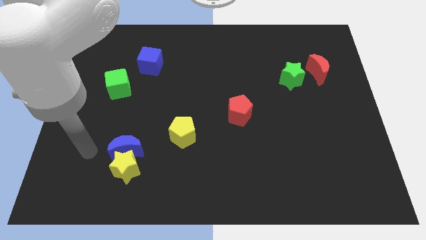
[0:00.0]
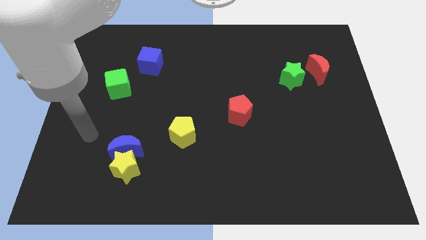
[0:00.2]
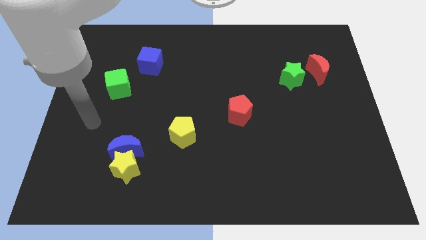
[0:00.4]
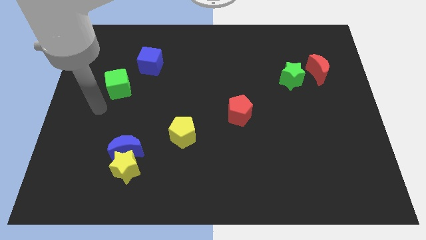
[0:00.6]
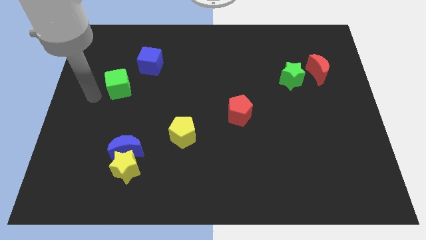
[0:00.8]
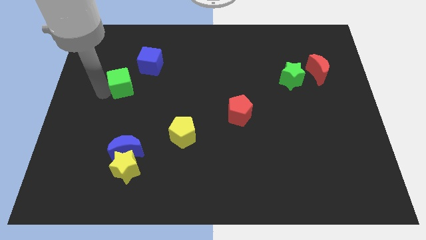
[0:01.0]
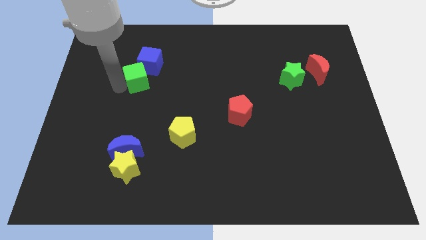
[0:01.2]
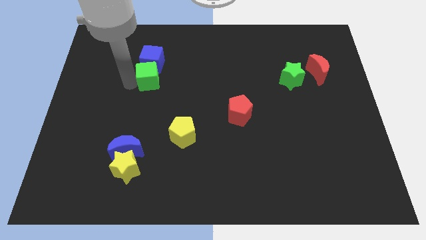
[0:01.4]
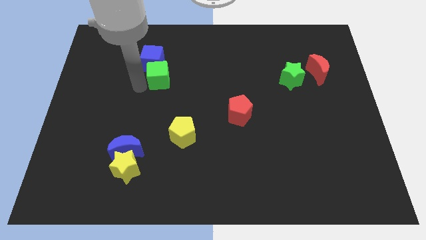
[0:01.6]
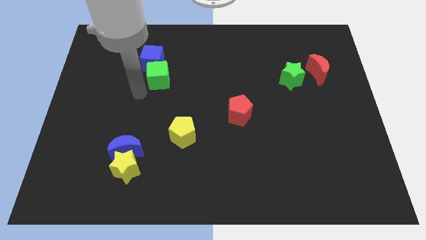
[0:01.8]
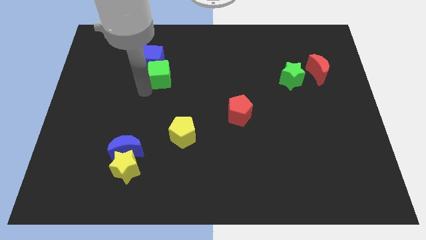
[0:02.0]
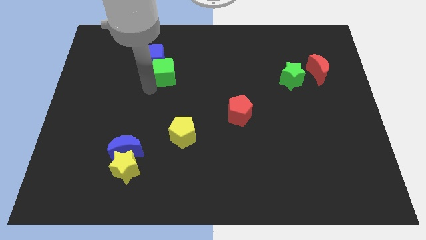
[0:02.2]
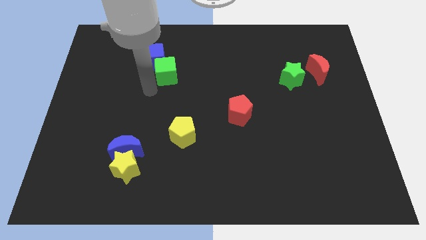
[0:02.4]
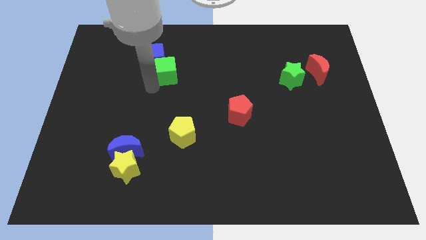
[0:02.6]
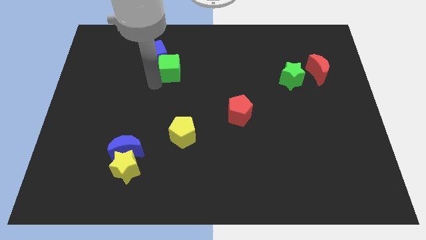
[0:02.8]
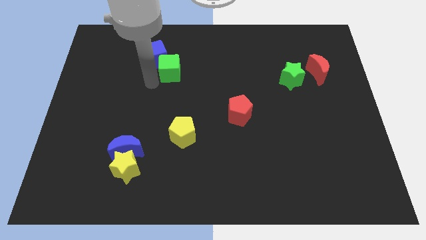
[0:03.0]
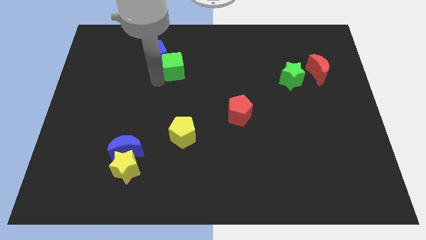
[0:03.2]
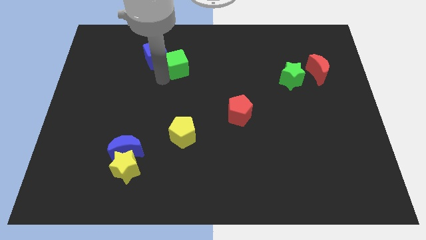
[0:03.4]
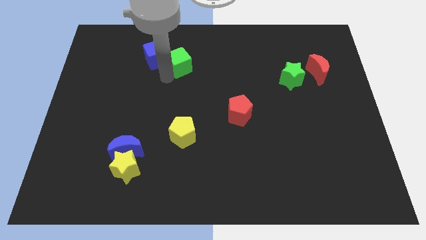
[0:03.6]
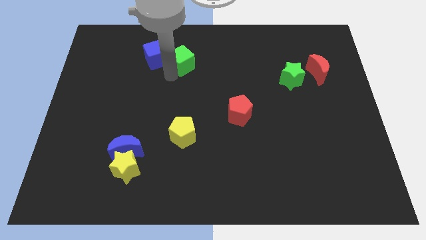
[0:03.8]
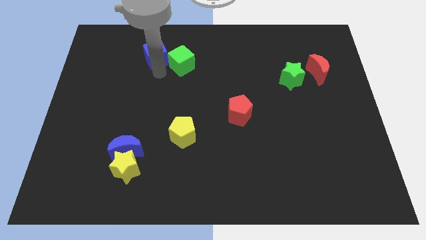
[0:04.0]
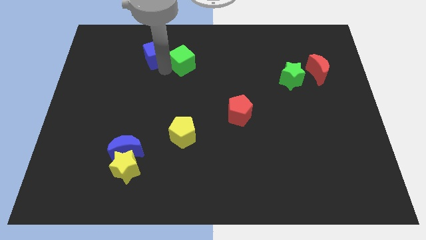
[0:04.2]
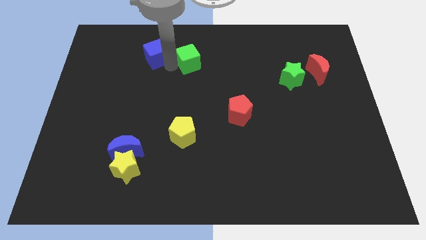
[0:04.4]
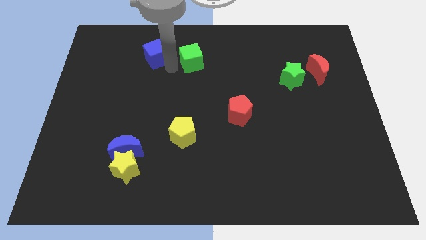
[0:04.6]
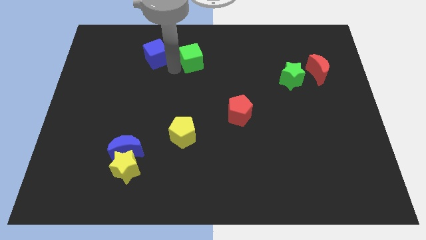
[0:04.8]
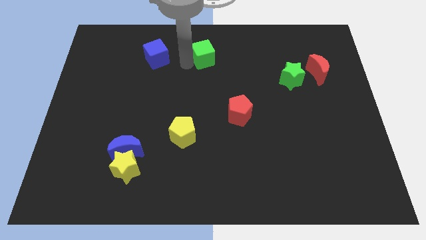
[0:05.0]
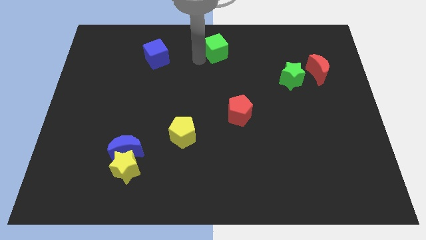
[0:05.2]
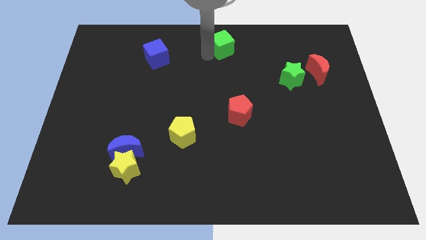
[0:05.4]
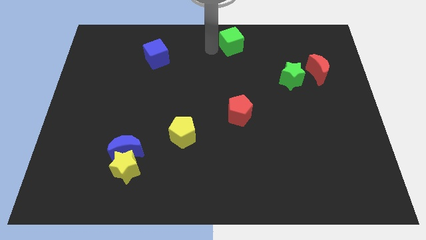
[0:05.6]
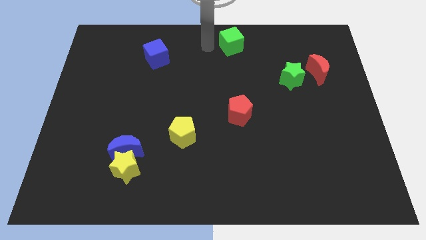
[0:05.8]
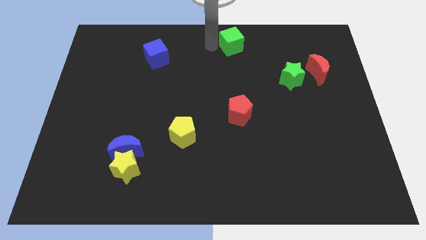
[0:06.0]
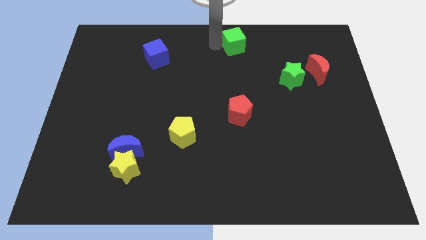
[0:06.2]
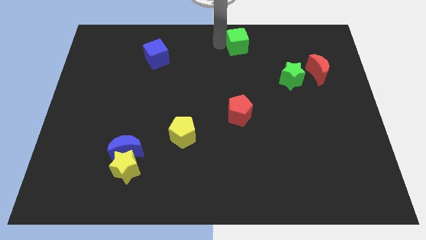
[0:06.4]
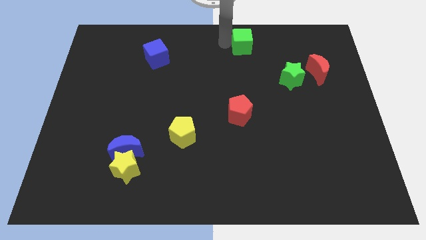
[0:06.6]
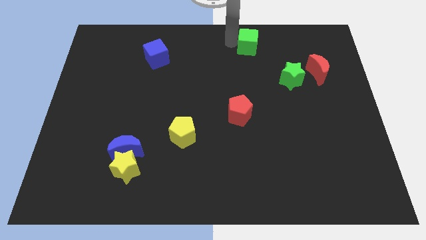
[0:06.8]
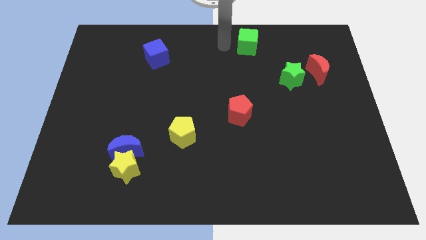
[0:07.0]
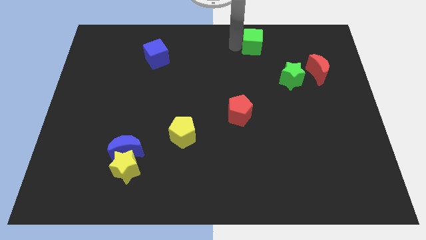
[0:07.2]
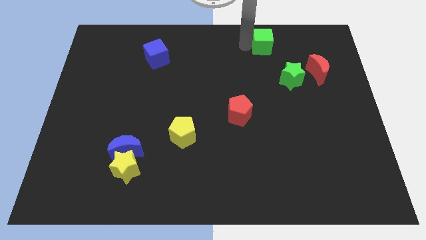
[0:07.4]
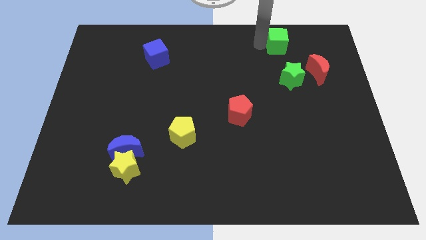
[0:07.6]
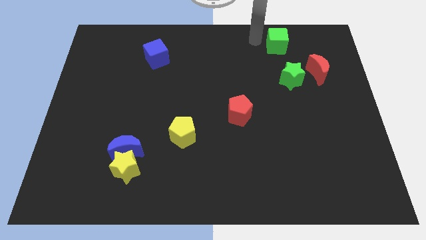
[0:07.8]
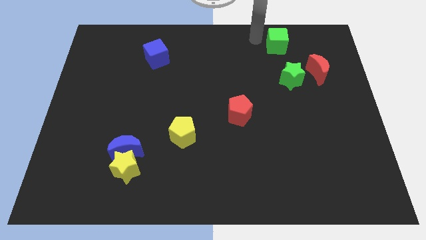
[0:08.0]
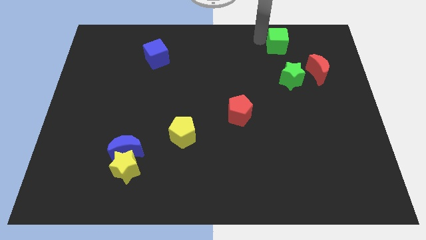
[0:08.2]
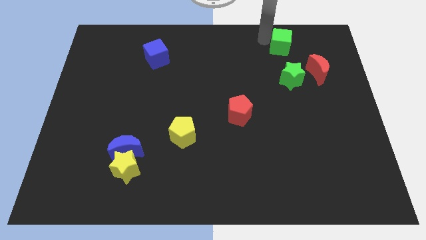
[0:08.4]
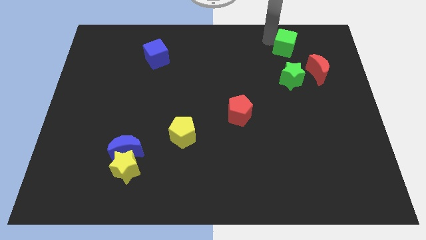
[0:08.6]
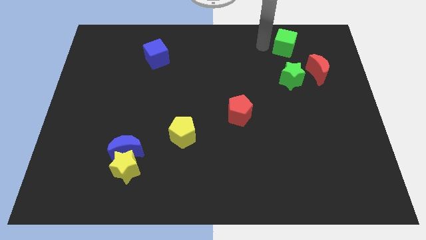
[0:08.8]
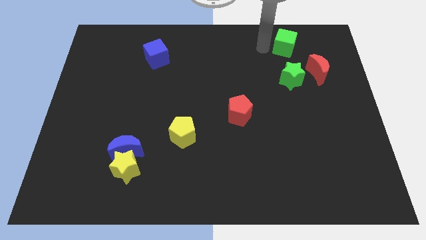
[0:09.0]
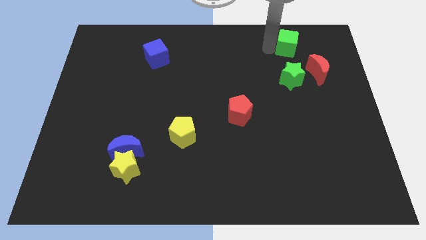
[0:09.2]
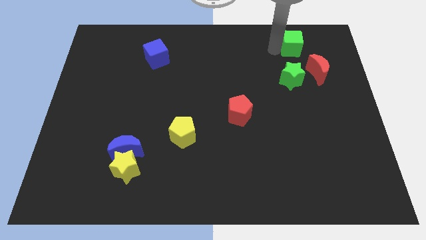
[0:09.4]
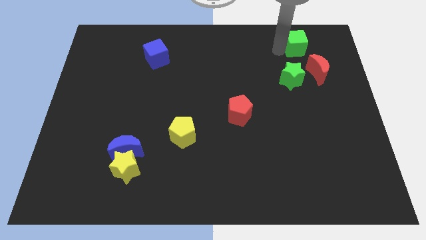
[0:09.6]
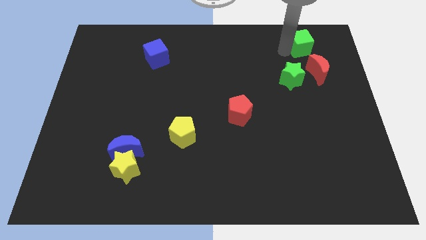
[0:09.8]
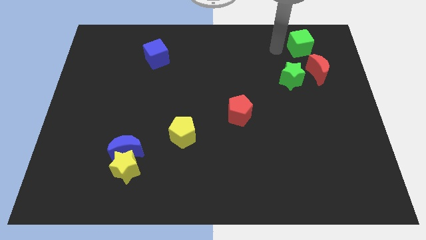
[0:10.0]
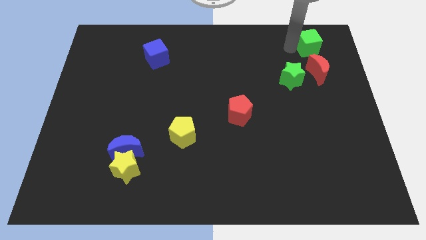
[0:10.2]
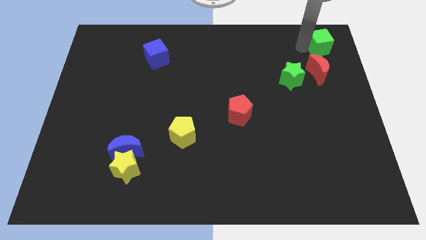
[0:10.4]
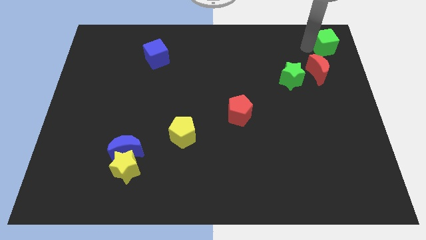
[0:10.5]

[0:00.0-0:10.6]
move the green cube to the upper right corner

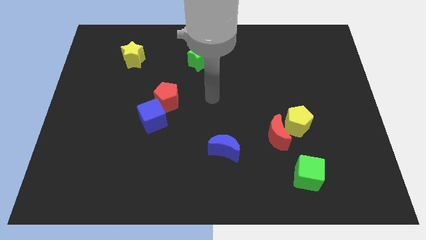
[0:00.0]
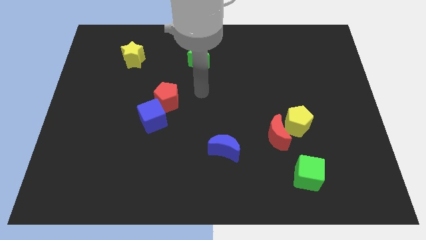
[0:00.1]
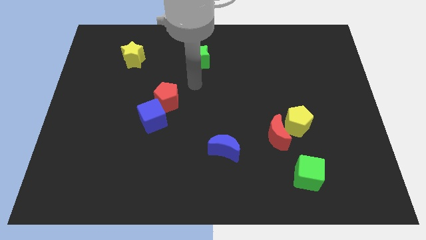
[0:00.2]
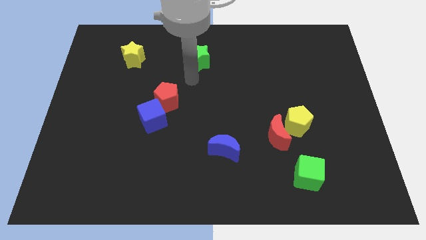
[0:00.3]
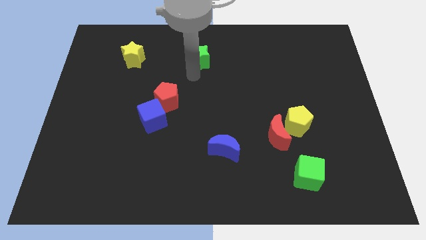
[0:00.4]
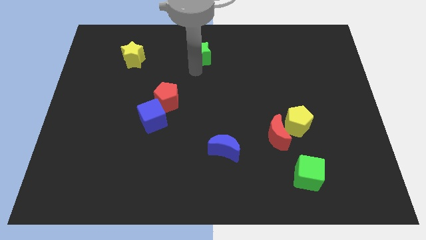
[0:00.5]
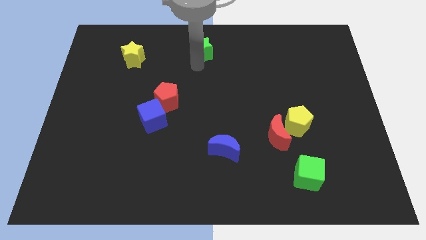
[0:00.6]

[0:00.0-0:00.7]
put the green star to the top
